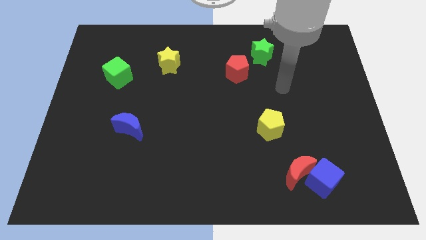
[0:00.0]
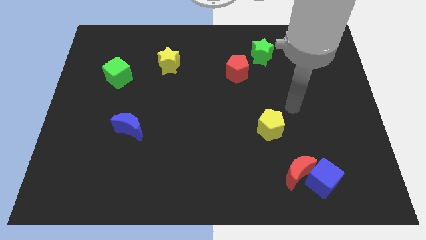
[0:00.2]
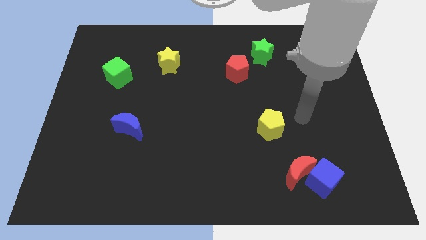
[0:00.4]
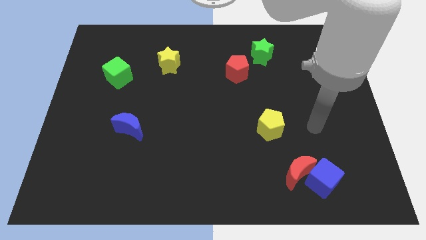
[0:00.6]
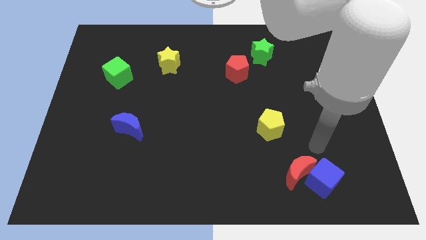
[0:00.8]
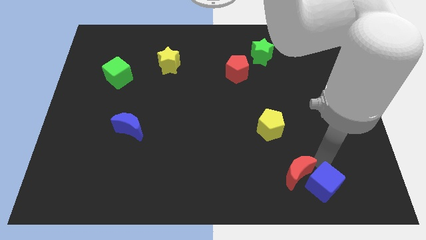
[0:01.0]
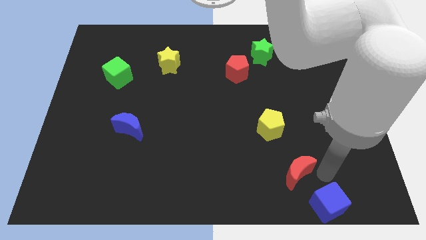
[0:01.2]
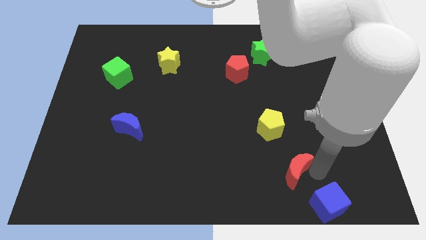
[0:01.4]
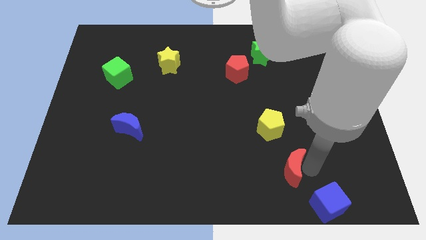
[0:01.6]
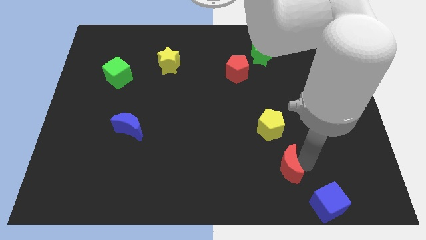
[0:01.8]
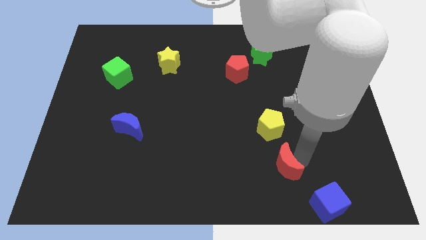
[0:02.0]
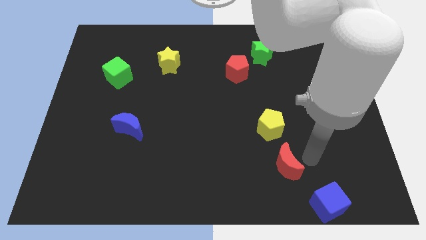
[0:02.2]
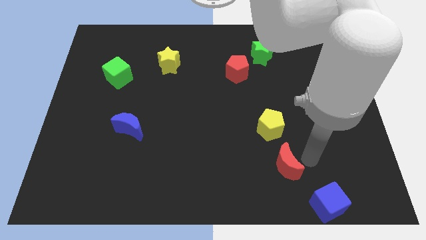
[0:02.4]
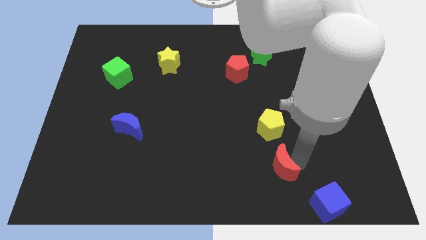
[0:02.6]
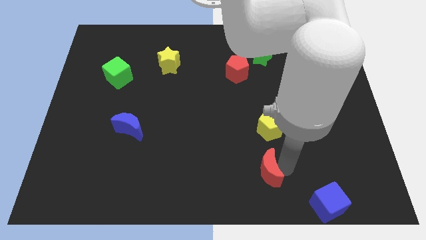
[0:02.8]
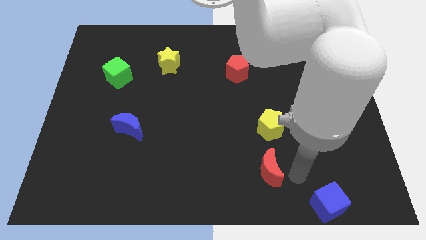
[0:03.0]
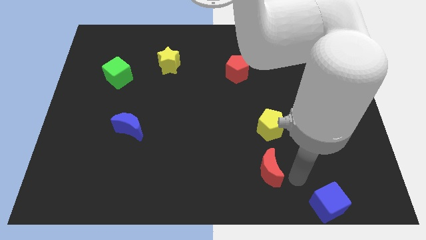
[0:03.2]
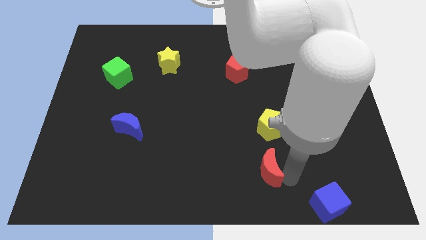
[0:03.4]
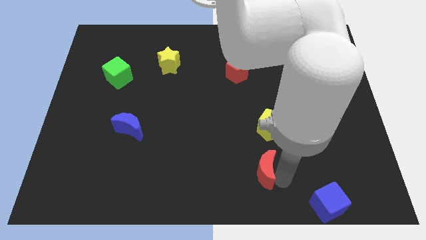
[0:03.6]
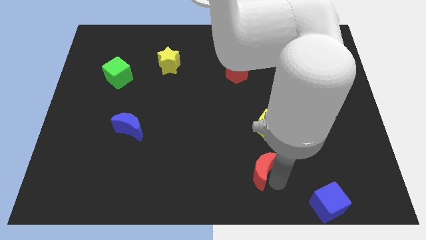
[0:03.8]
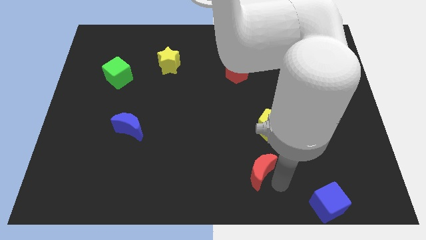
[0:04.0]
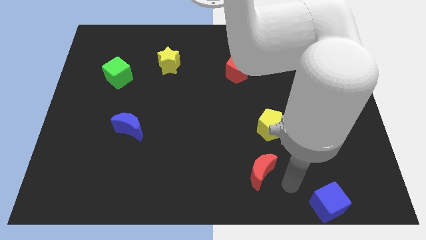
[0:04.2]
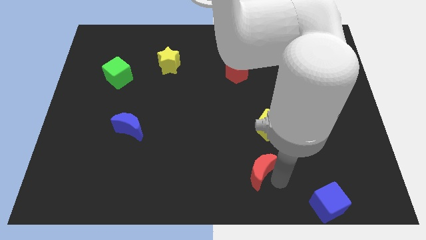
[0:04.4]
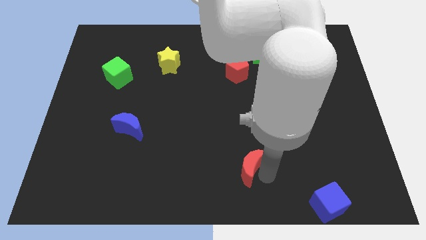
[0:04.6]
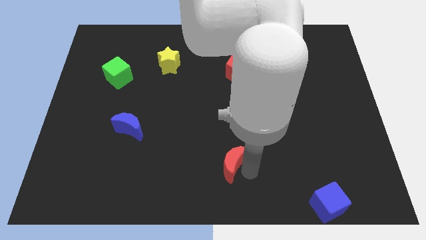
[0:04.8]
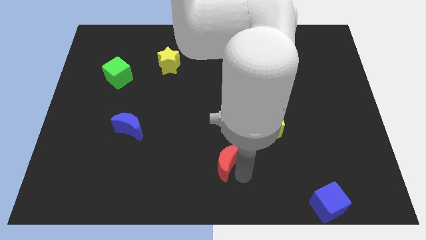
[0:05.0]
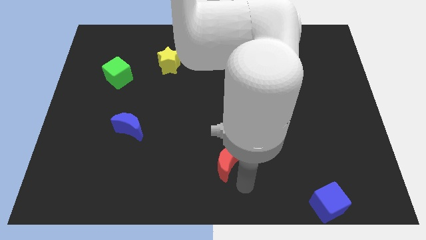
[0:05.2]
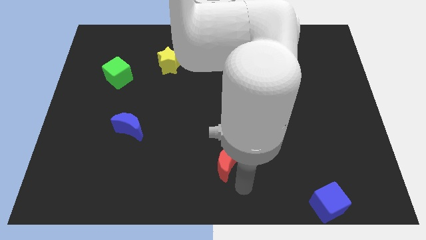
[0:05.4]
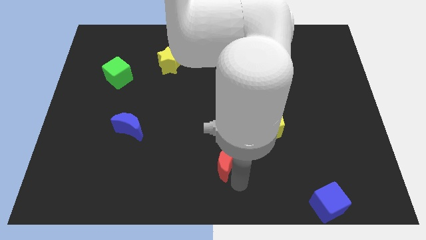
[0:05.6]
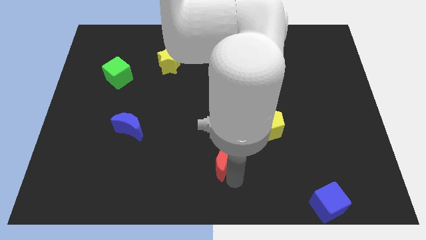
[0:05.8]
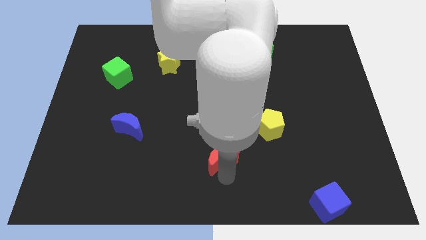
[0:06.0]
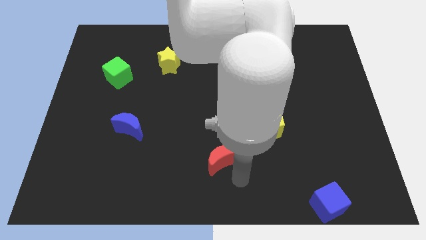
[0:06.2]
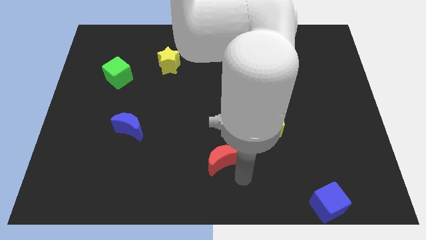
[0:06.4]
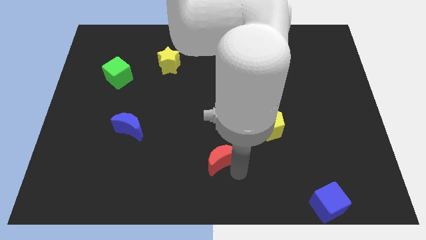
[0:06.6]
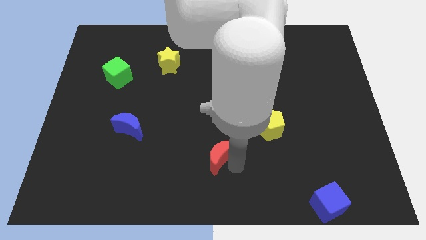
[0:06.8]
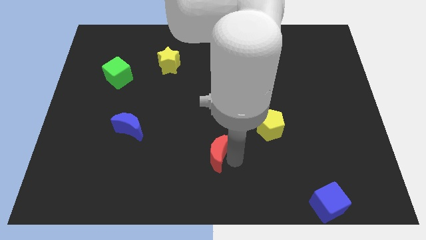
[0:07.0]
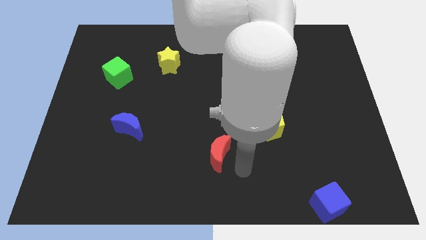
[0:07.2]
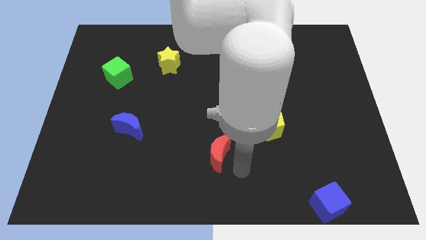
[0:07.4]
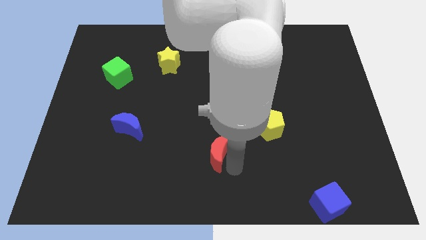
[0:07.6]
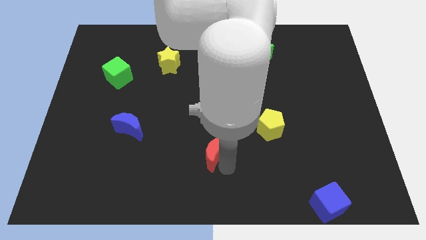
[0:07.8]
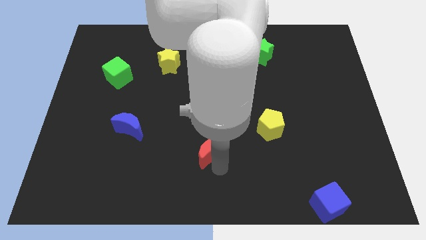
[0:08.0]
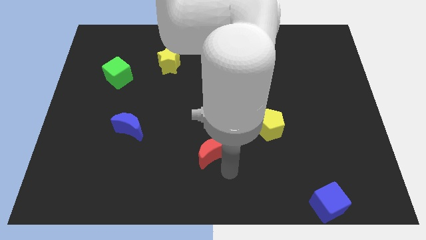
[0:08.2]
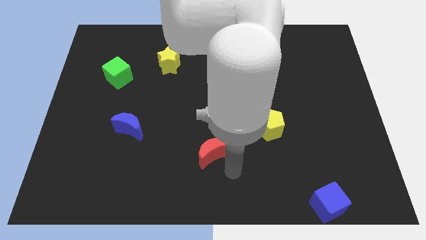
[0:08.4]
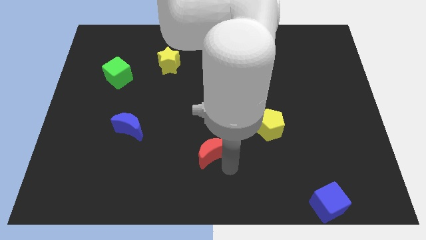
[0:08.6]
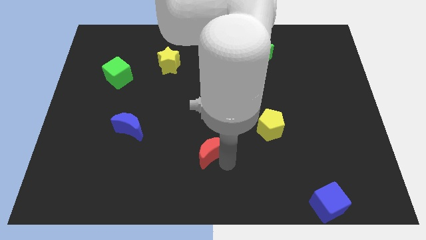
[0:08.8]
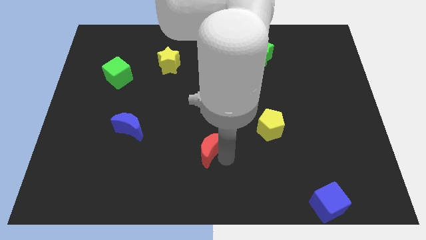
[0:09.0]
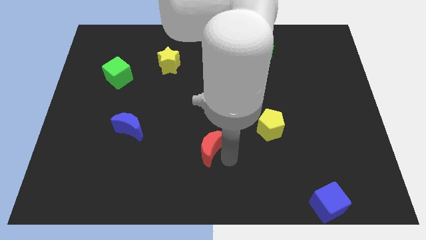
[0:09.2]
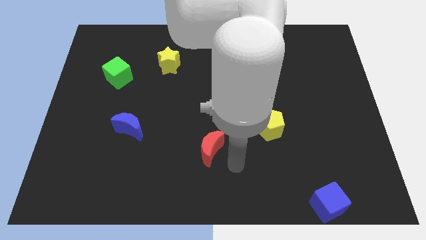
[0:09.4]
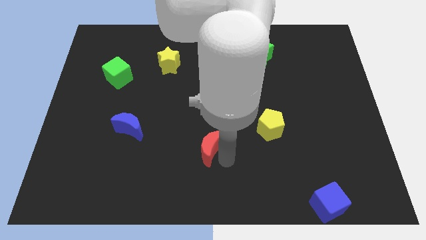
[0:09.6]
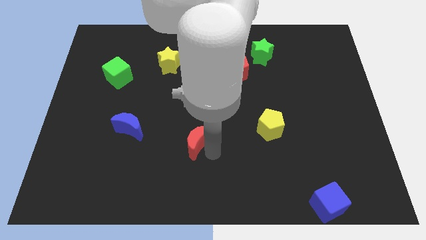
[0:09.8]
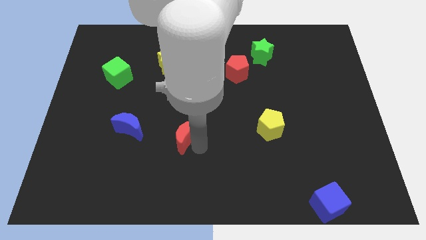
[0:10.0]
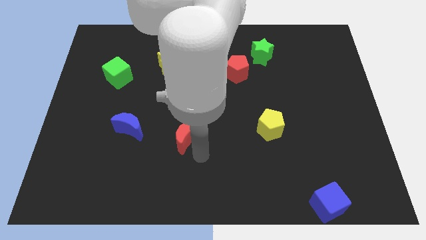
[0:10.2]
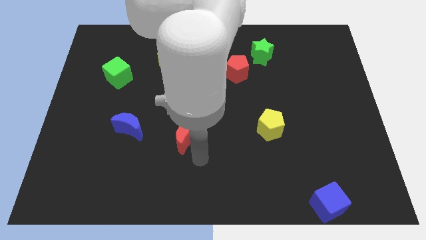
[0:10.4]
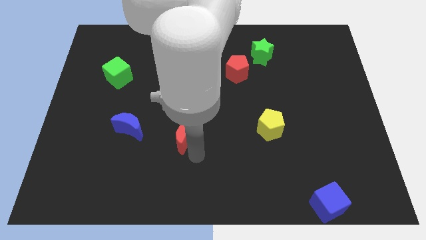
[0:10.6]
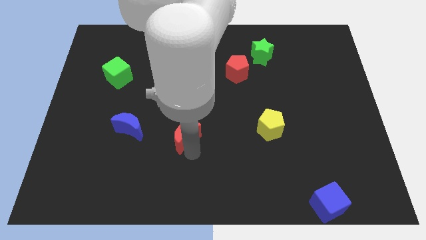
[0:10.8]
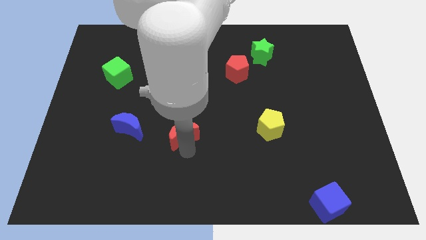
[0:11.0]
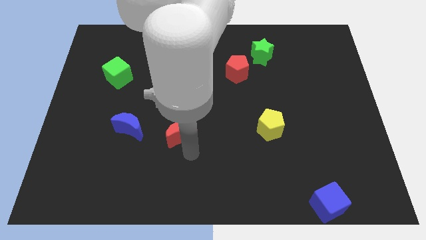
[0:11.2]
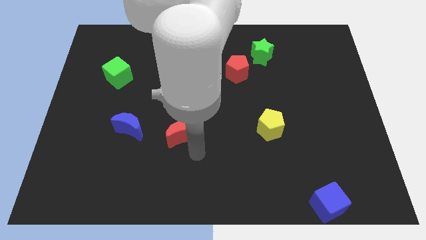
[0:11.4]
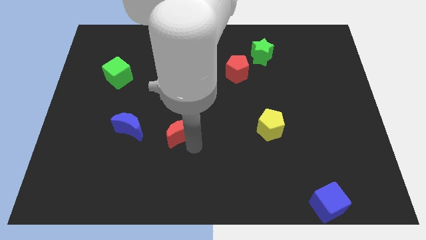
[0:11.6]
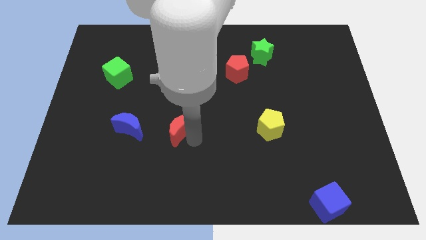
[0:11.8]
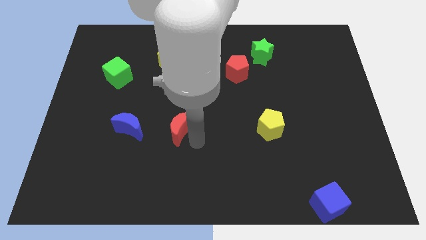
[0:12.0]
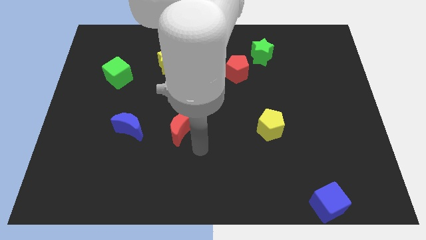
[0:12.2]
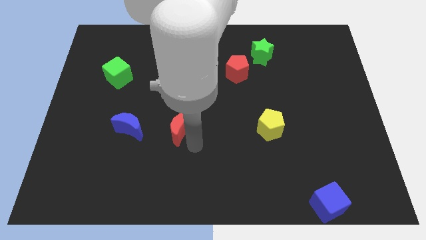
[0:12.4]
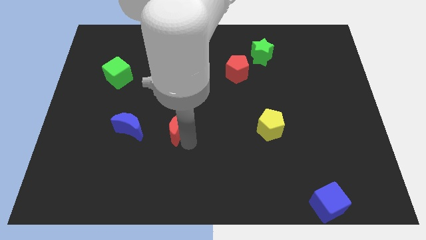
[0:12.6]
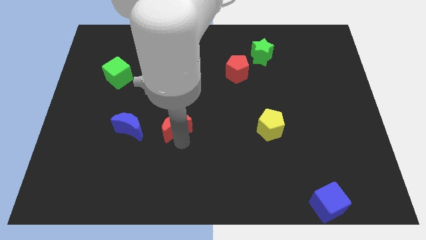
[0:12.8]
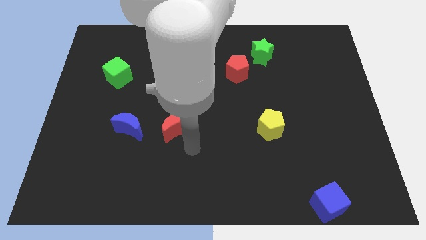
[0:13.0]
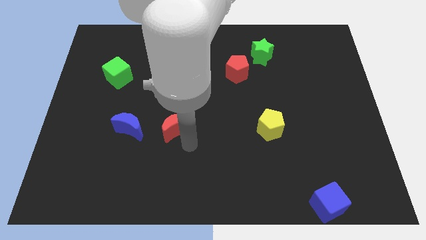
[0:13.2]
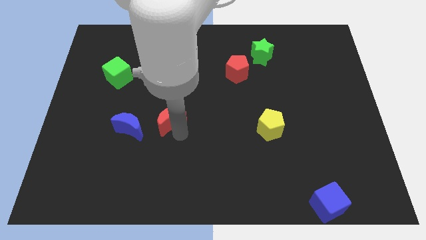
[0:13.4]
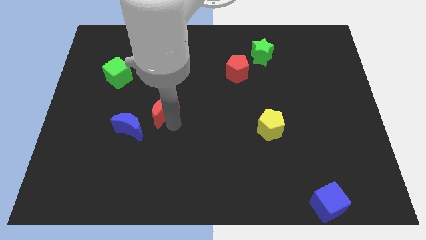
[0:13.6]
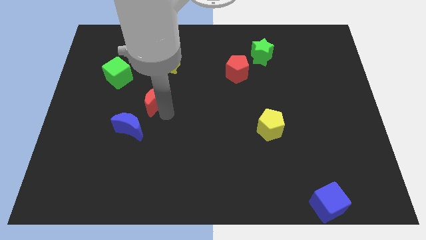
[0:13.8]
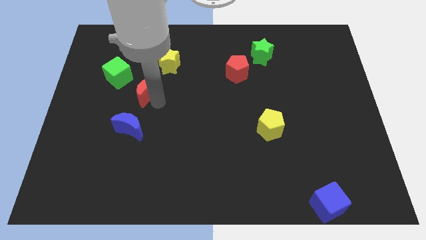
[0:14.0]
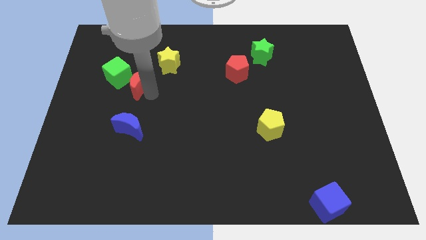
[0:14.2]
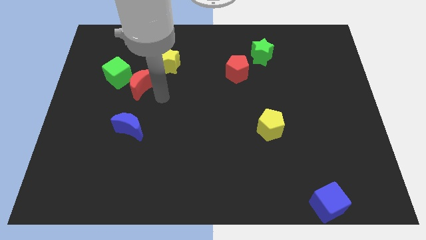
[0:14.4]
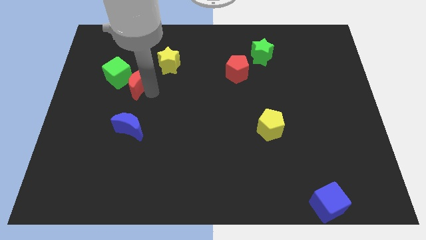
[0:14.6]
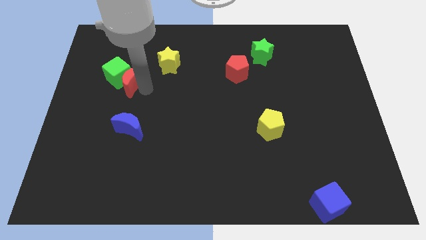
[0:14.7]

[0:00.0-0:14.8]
push the red moon to the green cube
